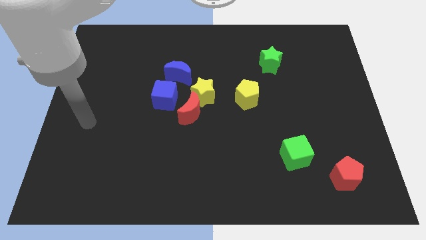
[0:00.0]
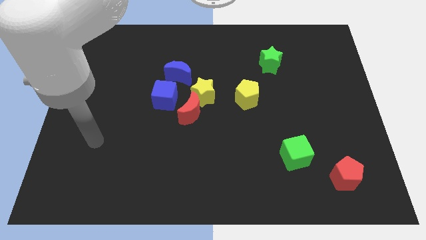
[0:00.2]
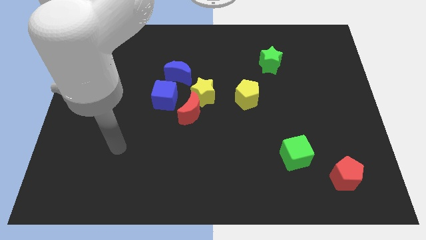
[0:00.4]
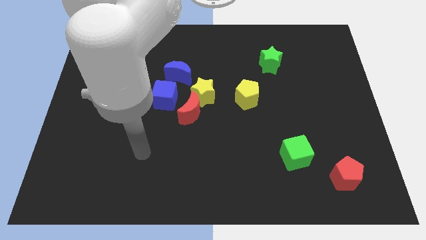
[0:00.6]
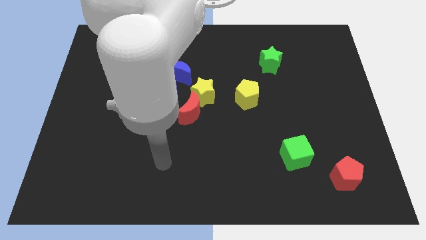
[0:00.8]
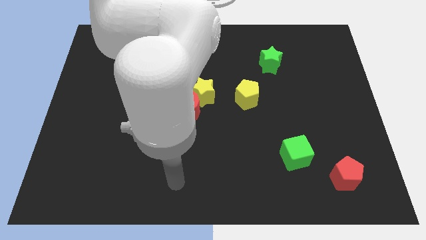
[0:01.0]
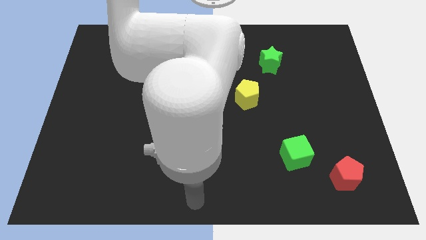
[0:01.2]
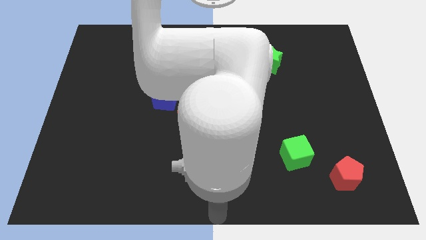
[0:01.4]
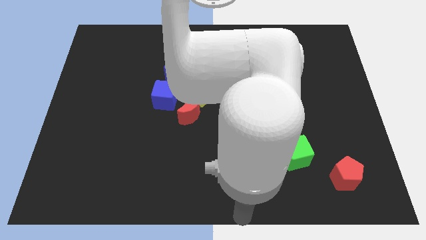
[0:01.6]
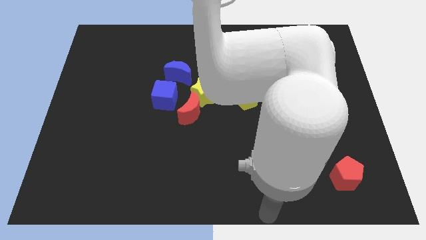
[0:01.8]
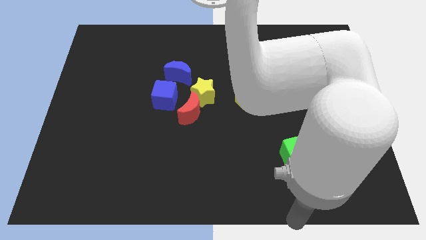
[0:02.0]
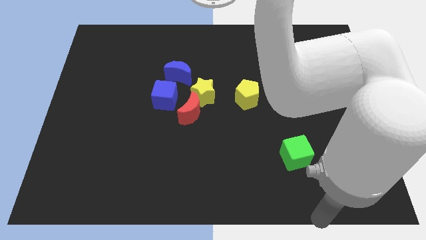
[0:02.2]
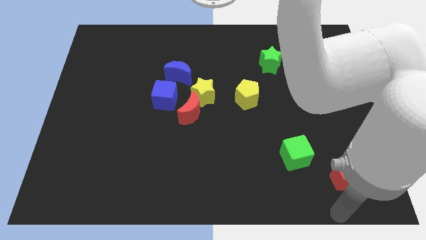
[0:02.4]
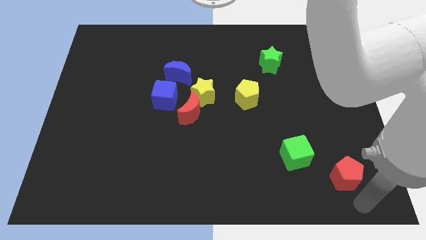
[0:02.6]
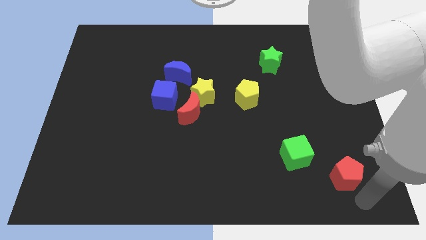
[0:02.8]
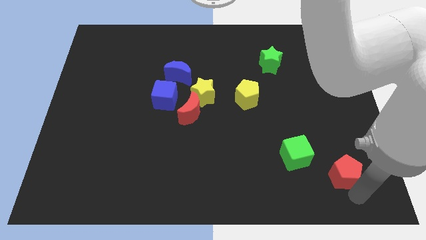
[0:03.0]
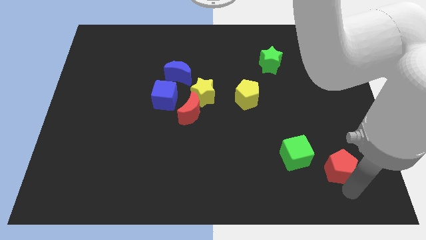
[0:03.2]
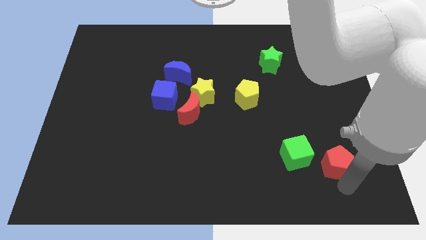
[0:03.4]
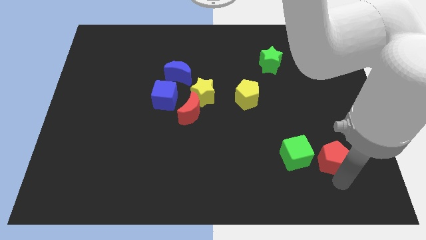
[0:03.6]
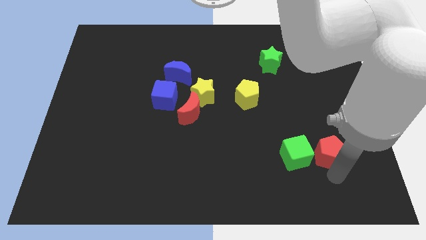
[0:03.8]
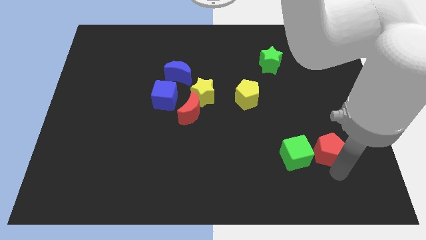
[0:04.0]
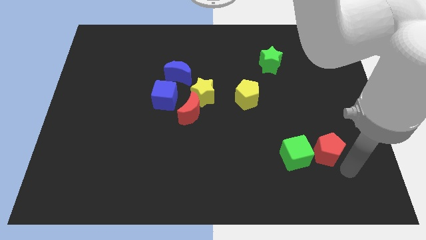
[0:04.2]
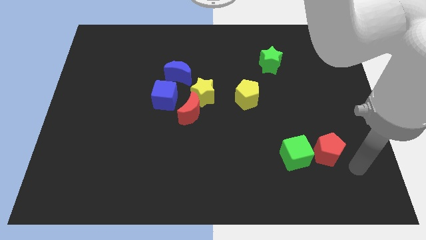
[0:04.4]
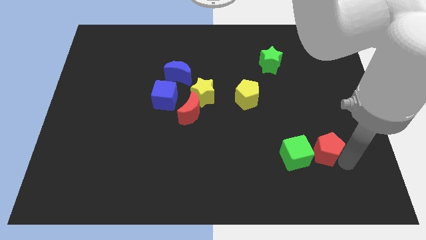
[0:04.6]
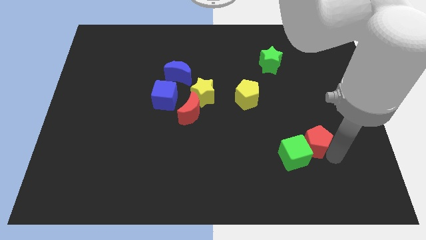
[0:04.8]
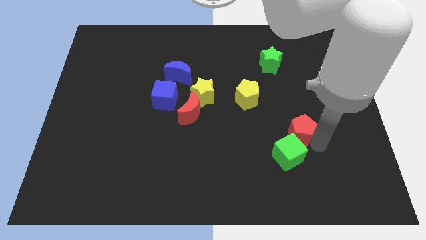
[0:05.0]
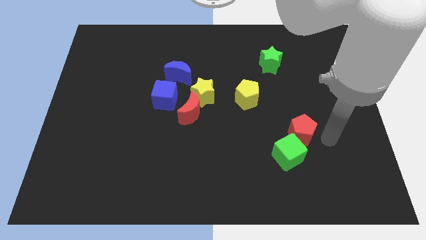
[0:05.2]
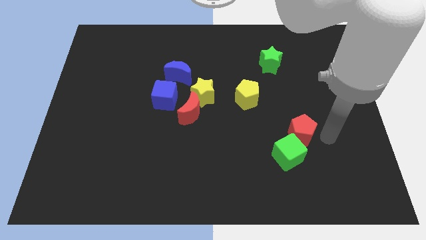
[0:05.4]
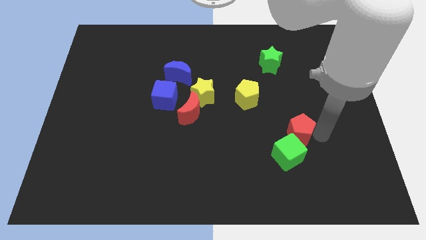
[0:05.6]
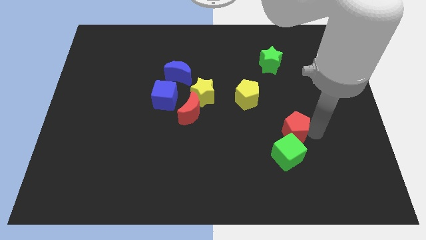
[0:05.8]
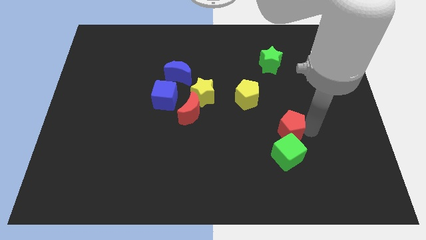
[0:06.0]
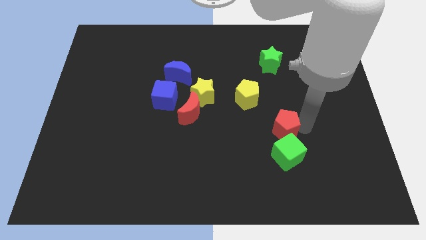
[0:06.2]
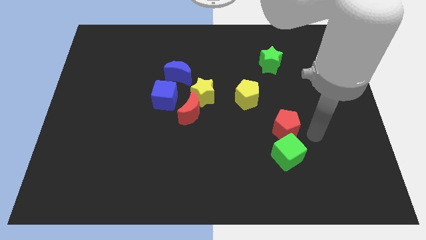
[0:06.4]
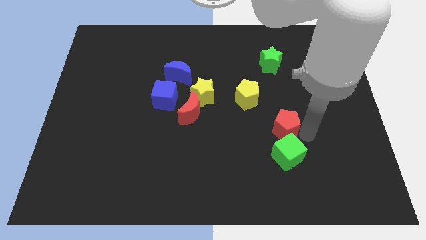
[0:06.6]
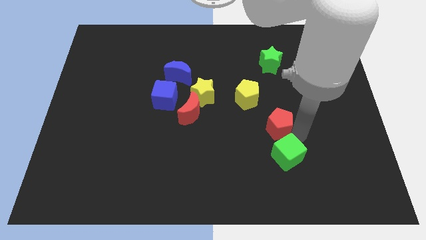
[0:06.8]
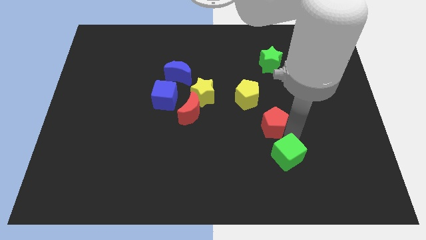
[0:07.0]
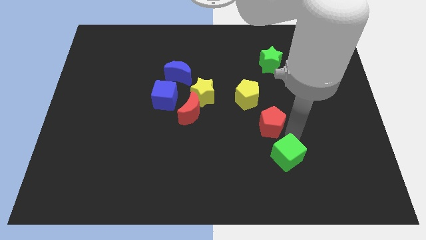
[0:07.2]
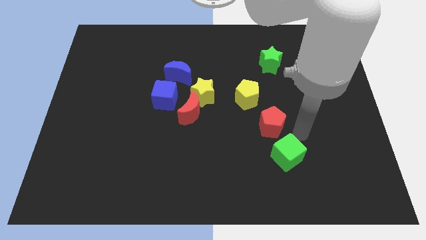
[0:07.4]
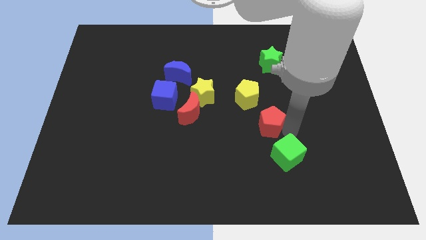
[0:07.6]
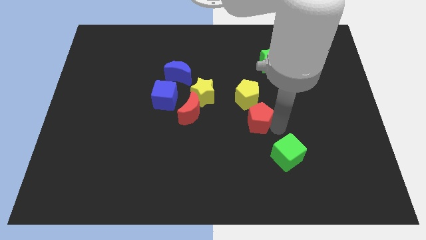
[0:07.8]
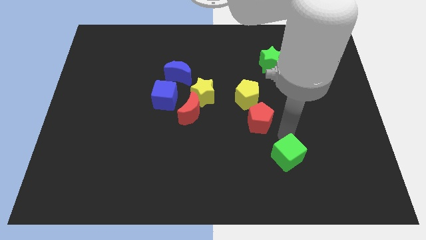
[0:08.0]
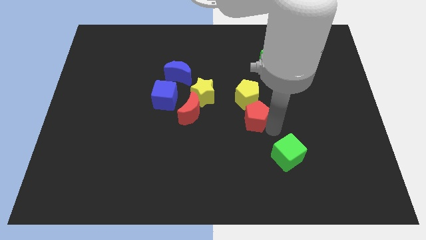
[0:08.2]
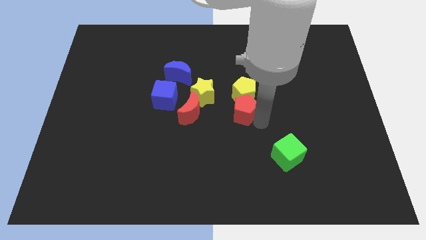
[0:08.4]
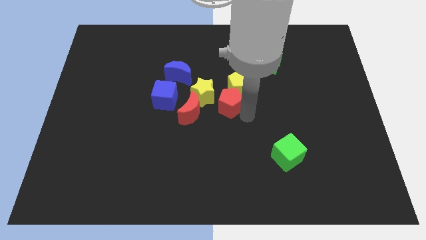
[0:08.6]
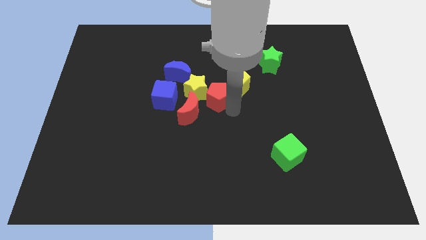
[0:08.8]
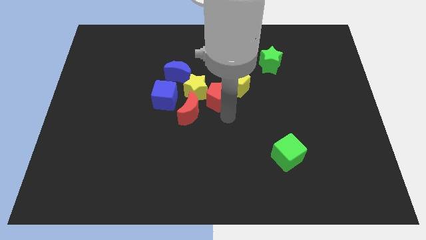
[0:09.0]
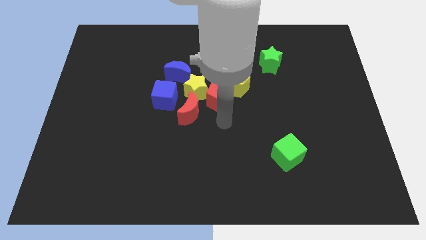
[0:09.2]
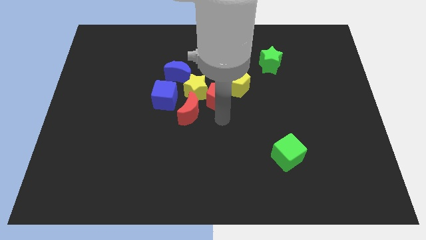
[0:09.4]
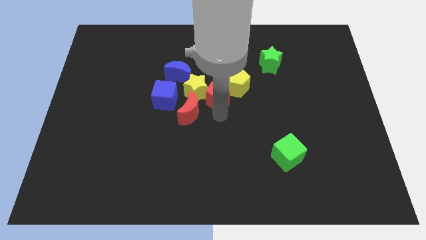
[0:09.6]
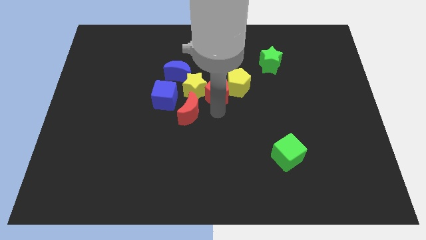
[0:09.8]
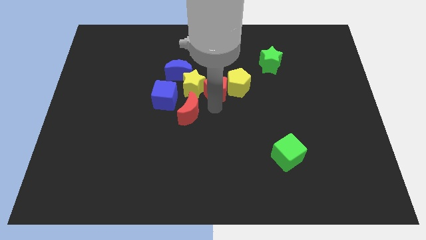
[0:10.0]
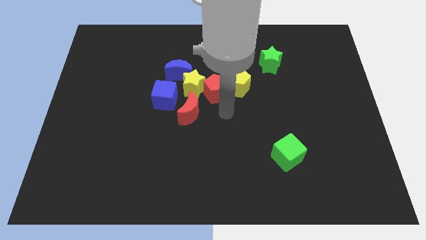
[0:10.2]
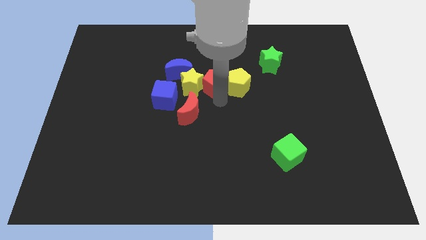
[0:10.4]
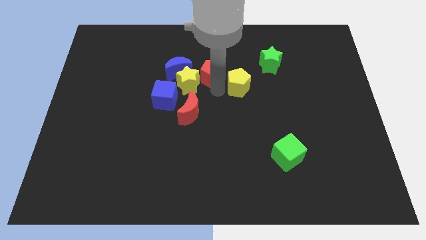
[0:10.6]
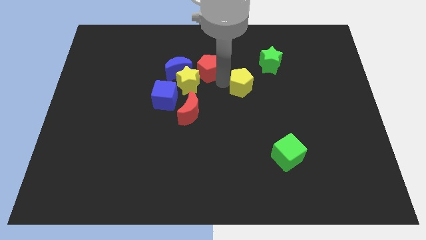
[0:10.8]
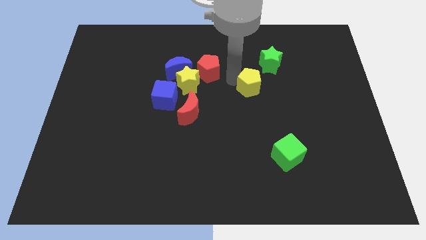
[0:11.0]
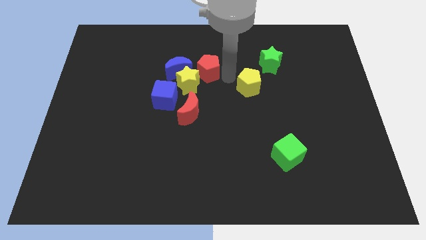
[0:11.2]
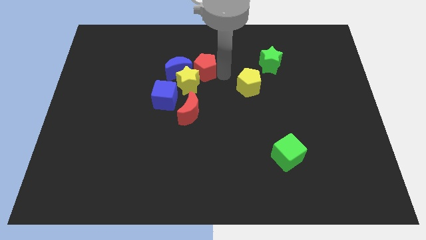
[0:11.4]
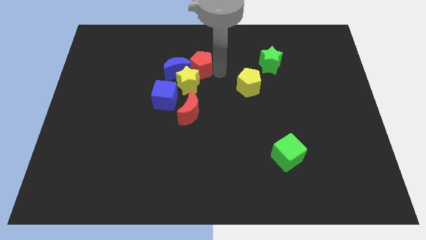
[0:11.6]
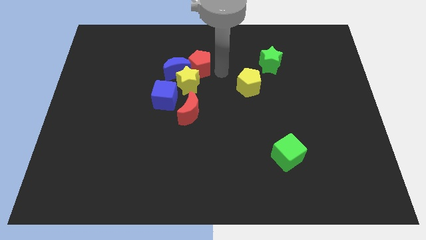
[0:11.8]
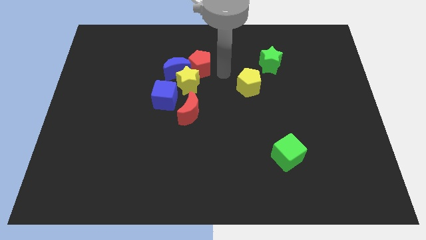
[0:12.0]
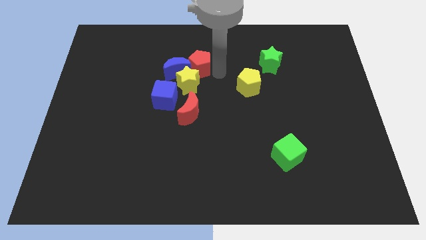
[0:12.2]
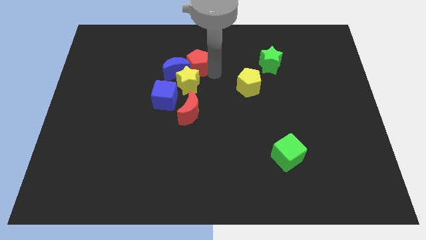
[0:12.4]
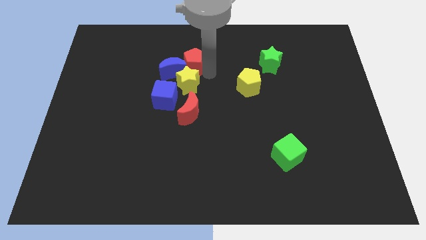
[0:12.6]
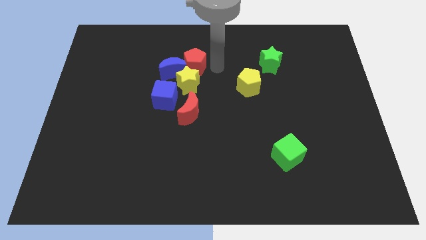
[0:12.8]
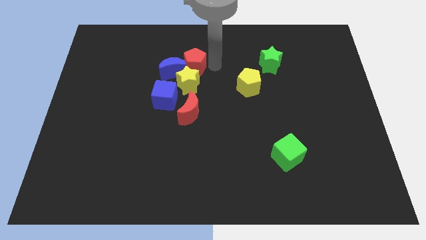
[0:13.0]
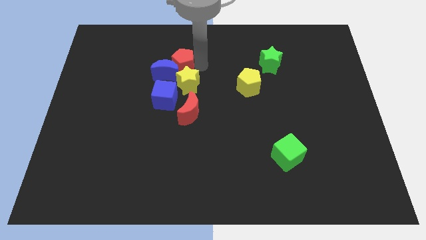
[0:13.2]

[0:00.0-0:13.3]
move the red pentagon to the top of the blue cube

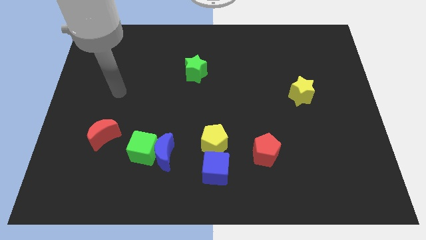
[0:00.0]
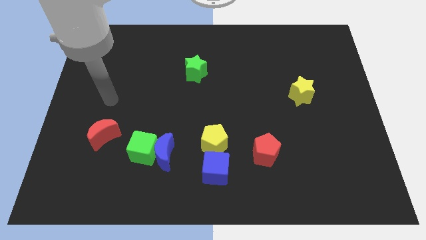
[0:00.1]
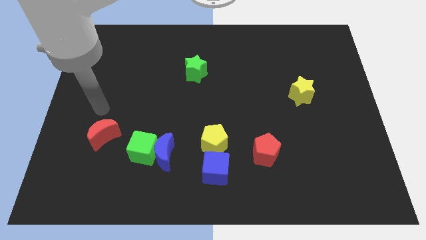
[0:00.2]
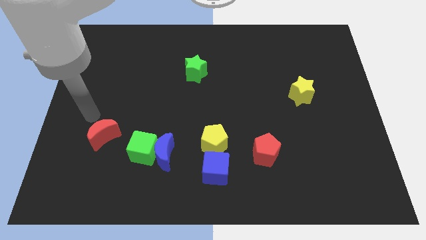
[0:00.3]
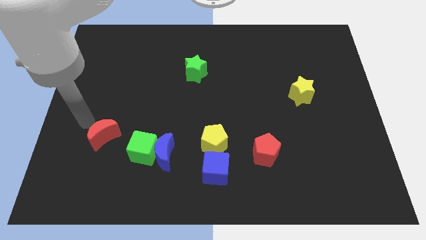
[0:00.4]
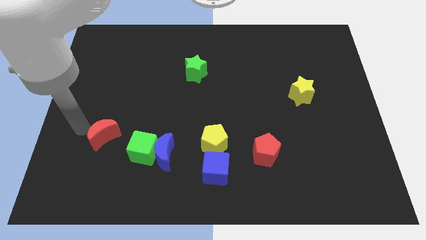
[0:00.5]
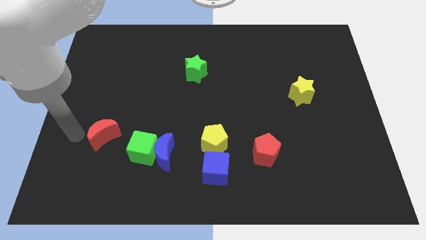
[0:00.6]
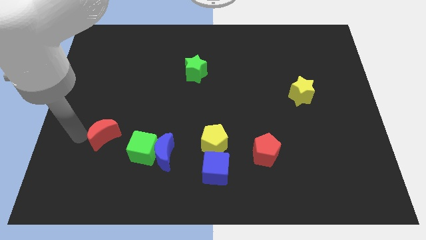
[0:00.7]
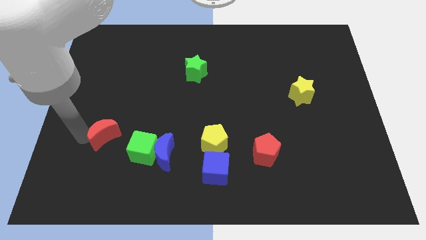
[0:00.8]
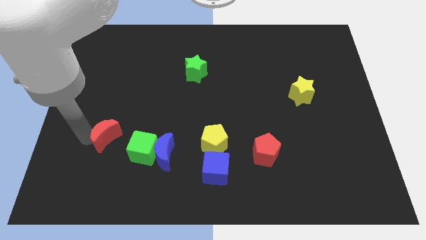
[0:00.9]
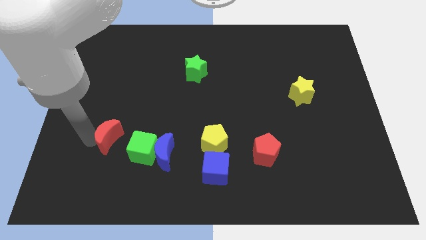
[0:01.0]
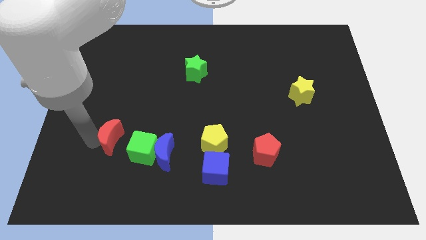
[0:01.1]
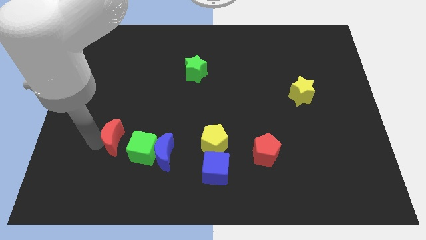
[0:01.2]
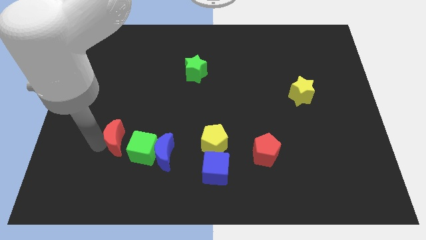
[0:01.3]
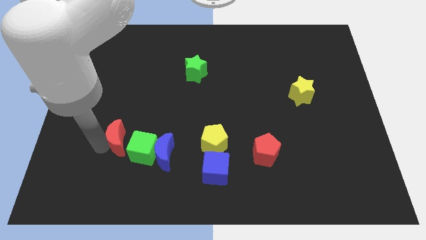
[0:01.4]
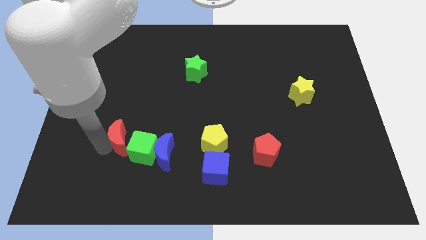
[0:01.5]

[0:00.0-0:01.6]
put the red moon diagonally up and to the left of the blue moon
